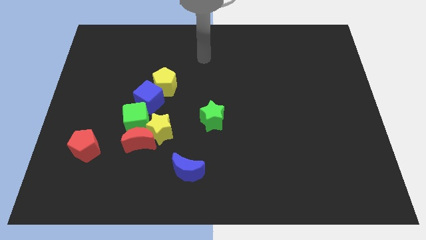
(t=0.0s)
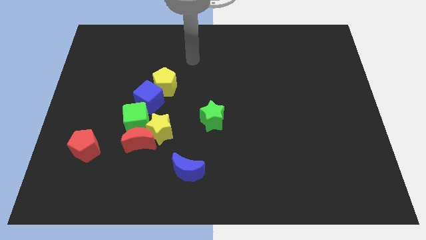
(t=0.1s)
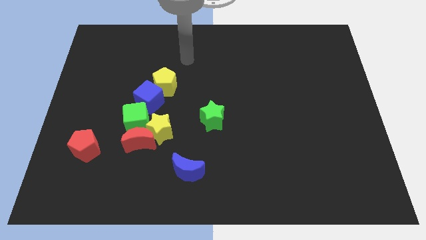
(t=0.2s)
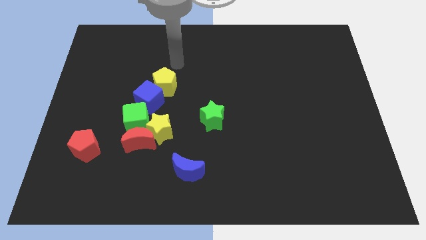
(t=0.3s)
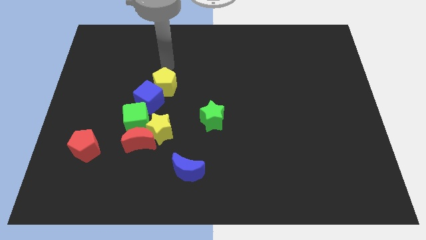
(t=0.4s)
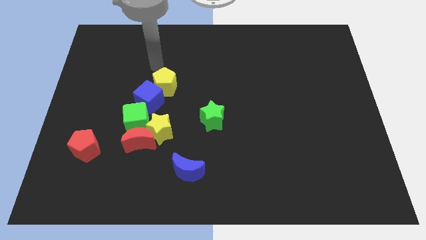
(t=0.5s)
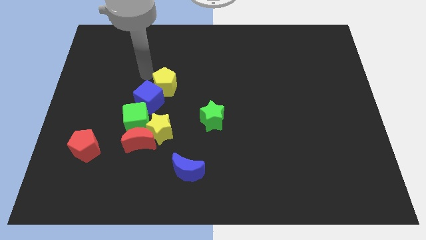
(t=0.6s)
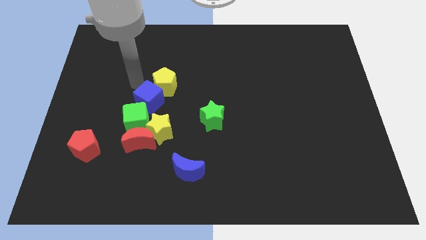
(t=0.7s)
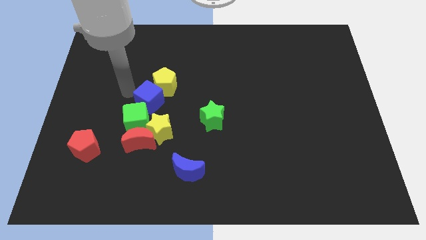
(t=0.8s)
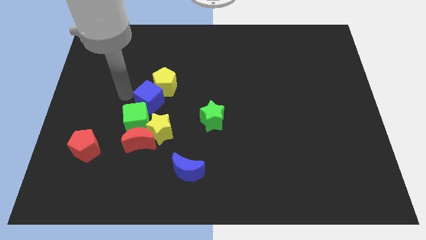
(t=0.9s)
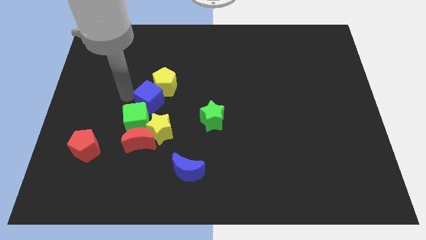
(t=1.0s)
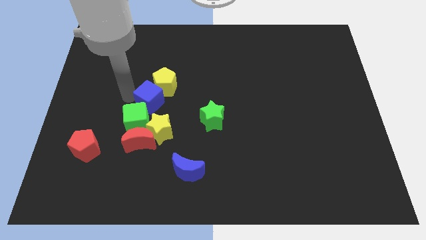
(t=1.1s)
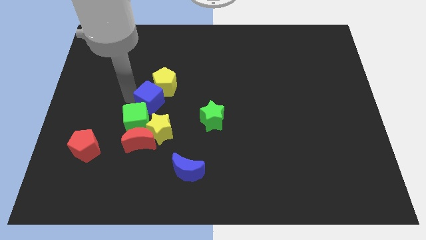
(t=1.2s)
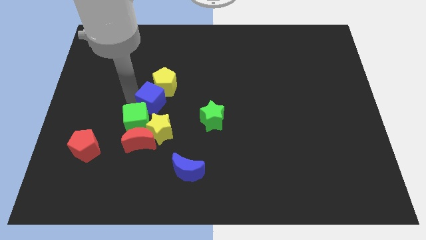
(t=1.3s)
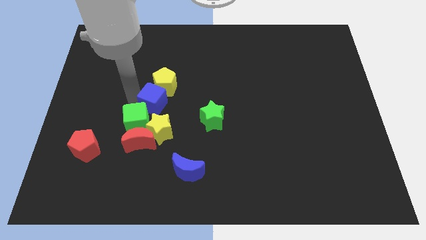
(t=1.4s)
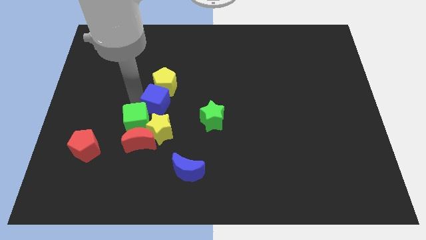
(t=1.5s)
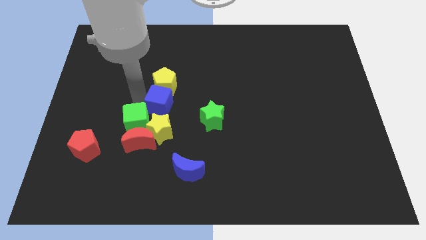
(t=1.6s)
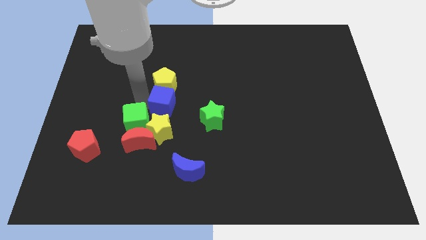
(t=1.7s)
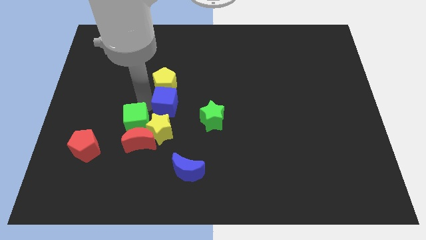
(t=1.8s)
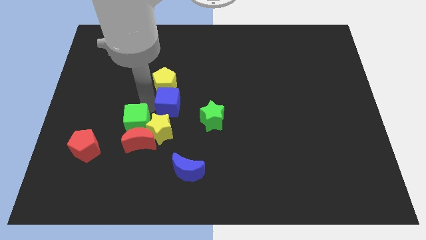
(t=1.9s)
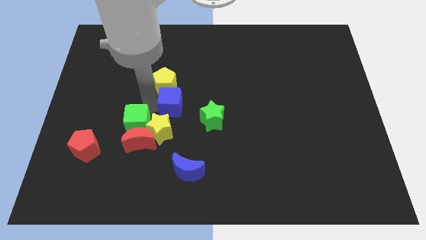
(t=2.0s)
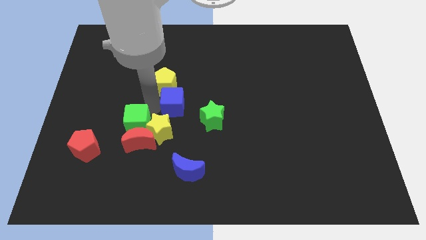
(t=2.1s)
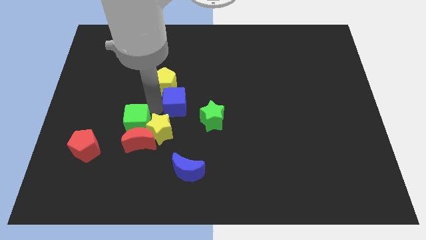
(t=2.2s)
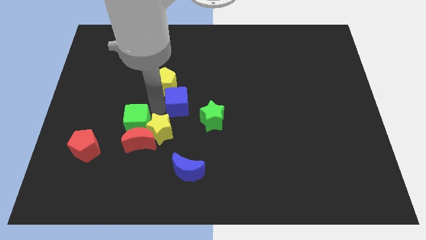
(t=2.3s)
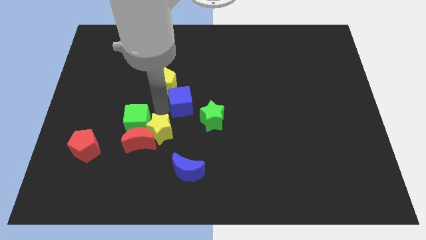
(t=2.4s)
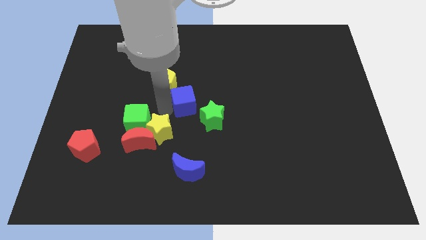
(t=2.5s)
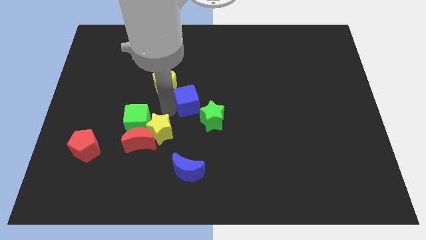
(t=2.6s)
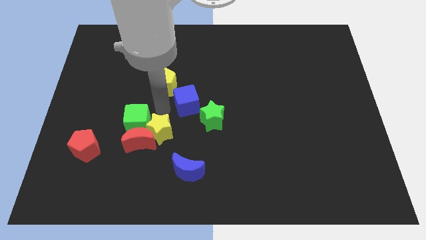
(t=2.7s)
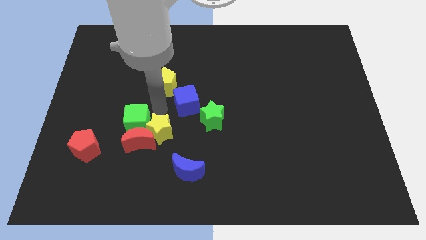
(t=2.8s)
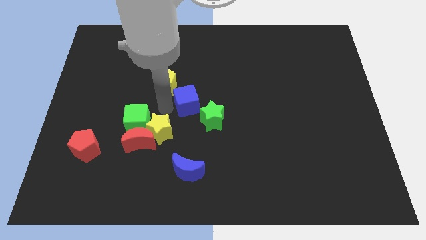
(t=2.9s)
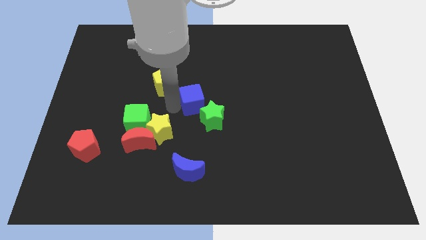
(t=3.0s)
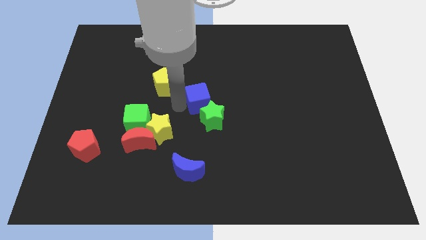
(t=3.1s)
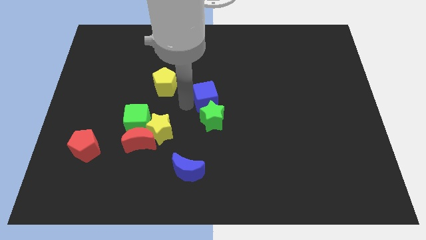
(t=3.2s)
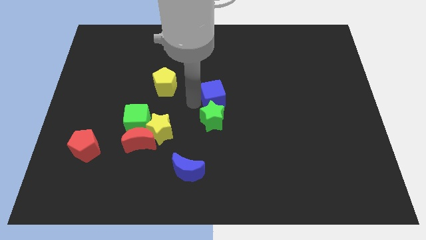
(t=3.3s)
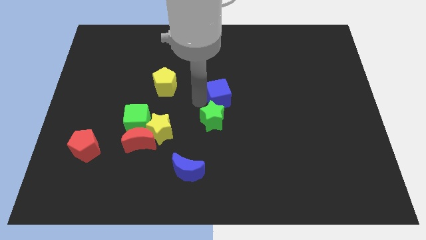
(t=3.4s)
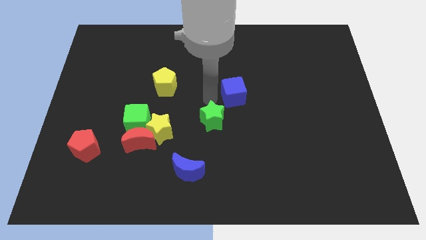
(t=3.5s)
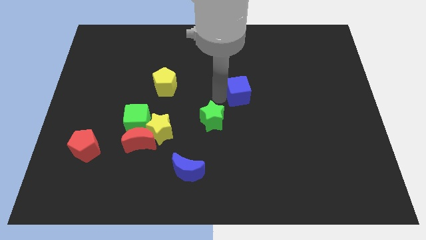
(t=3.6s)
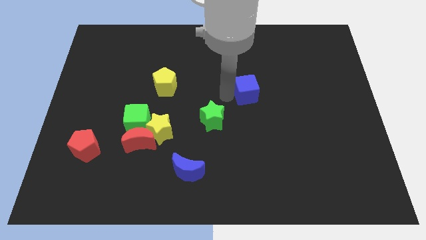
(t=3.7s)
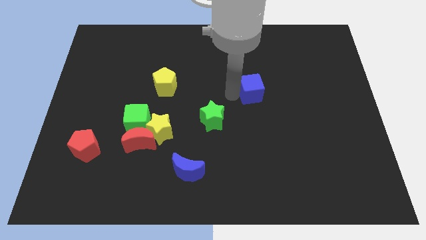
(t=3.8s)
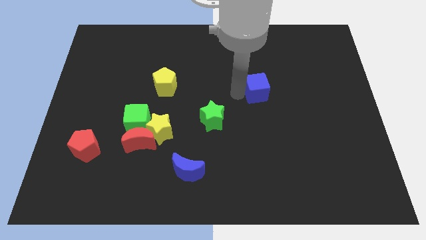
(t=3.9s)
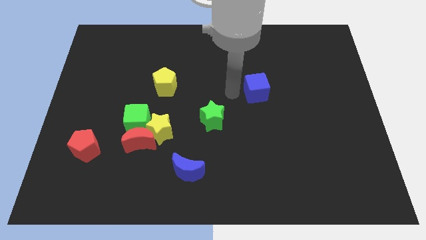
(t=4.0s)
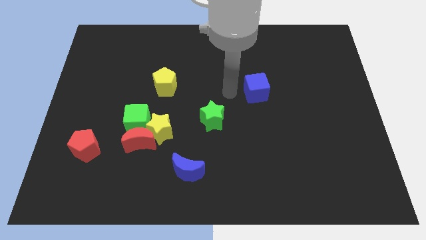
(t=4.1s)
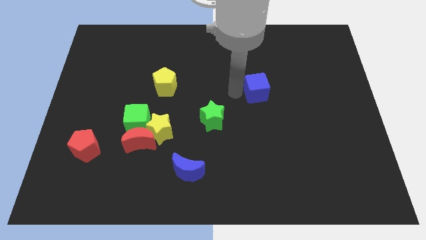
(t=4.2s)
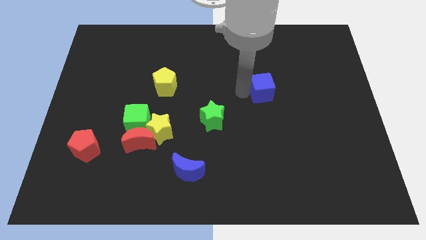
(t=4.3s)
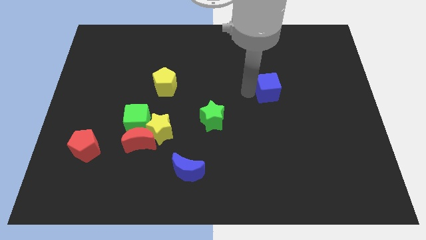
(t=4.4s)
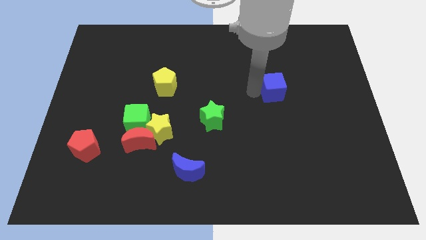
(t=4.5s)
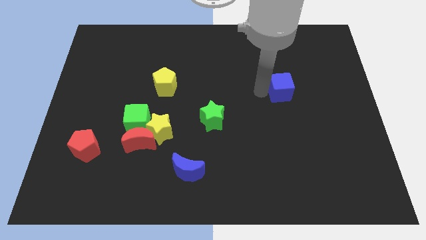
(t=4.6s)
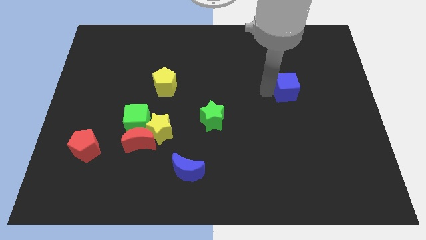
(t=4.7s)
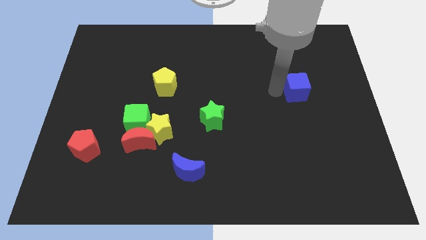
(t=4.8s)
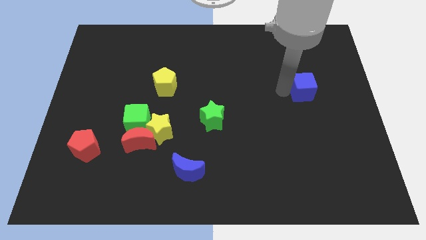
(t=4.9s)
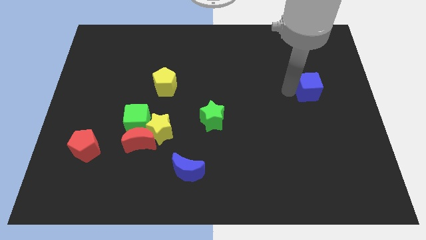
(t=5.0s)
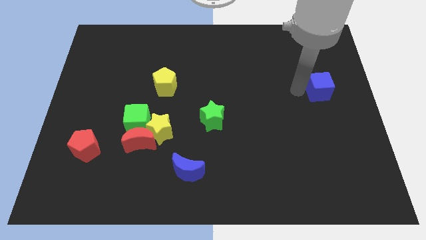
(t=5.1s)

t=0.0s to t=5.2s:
slide the blue cube to the right side

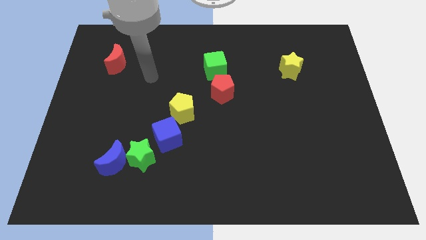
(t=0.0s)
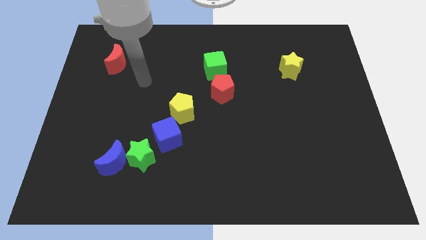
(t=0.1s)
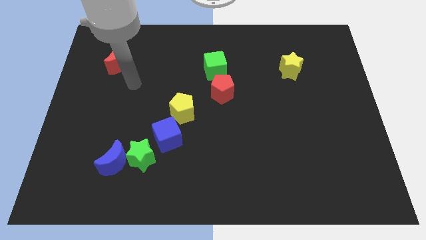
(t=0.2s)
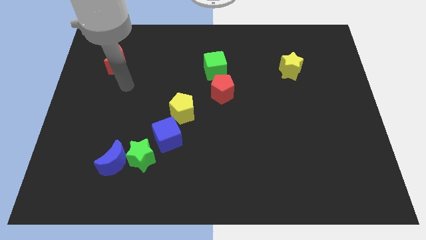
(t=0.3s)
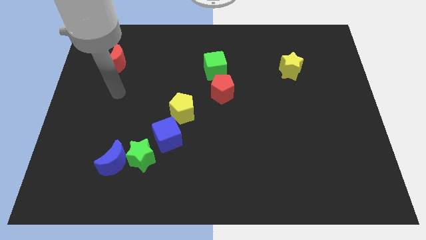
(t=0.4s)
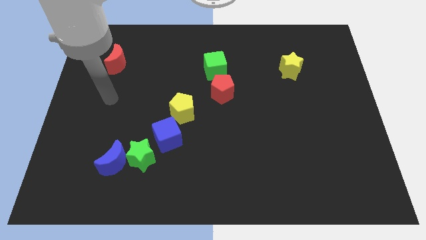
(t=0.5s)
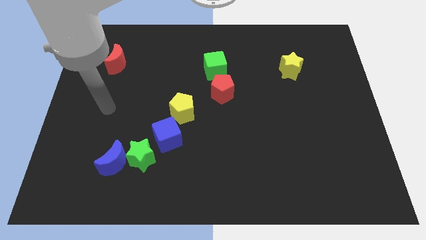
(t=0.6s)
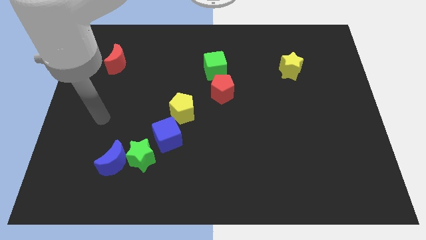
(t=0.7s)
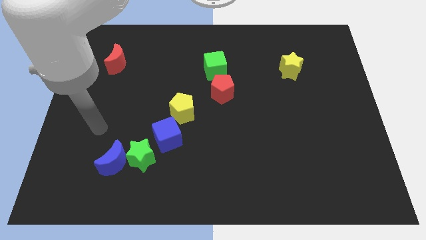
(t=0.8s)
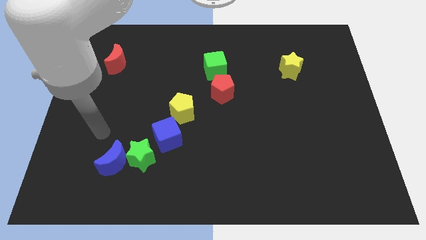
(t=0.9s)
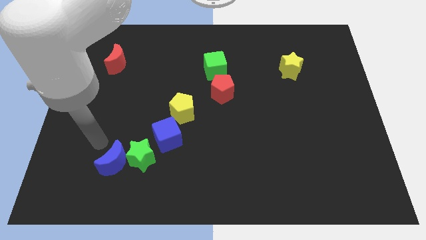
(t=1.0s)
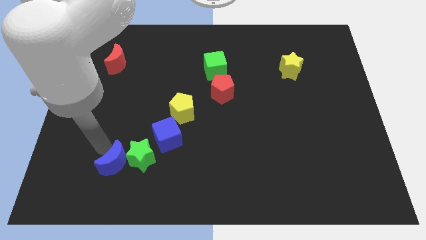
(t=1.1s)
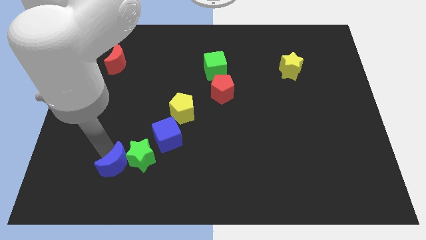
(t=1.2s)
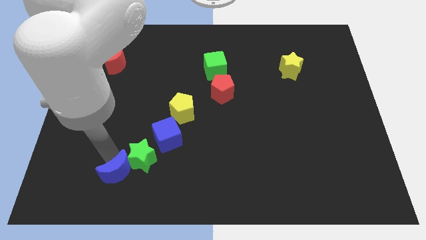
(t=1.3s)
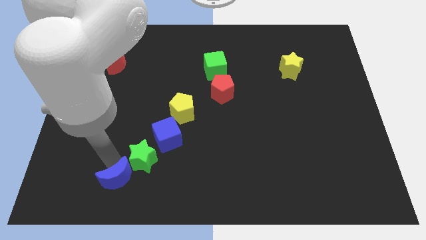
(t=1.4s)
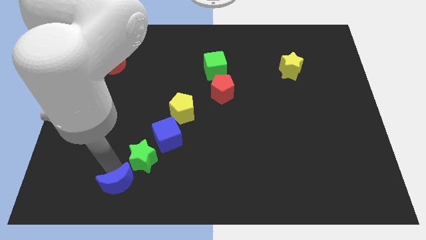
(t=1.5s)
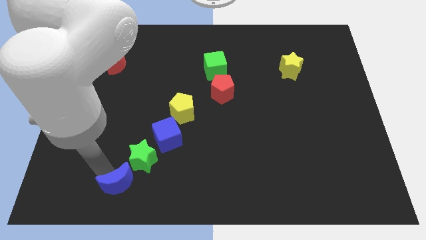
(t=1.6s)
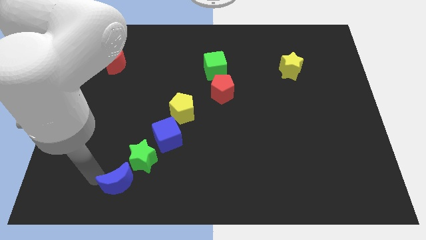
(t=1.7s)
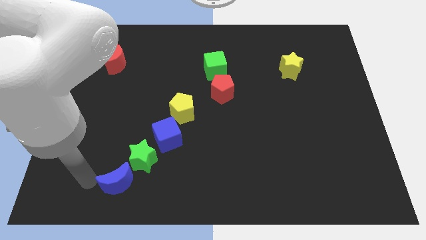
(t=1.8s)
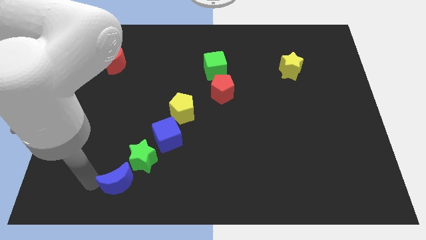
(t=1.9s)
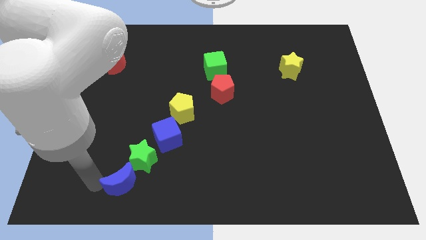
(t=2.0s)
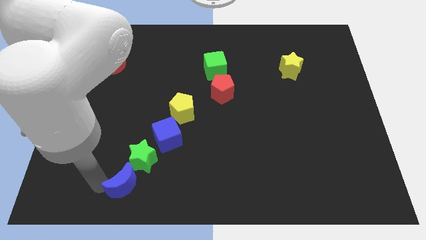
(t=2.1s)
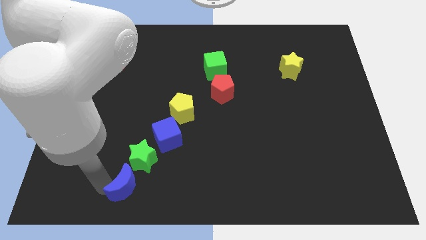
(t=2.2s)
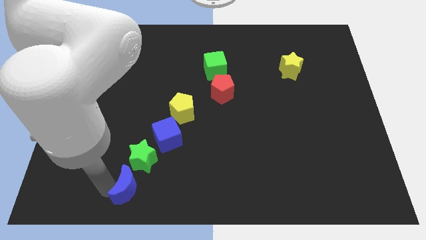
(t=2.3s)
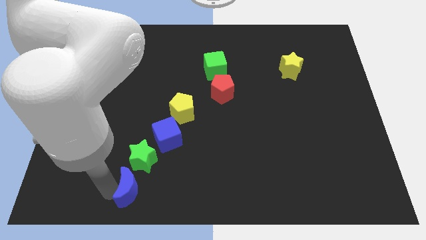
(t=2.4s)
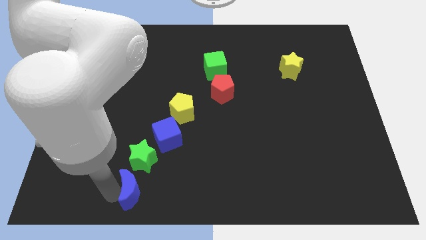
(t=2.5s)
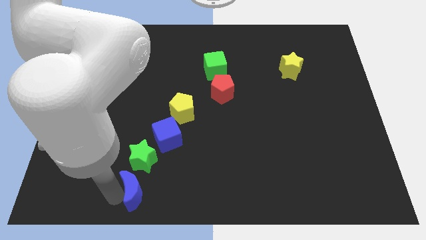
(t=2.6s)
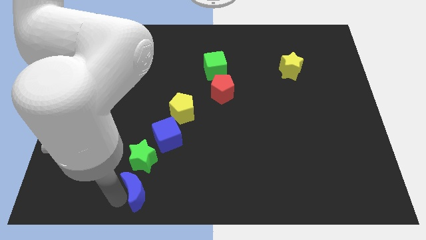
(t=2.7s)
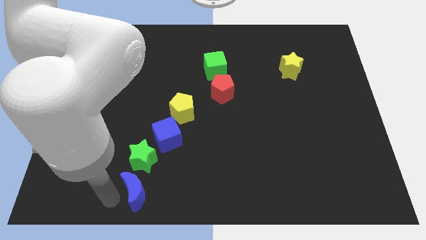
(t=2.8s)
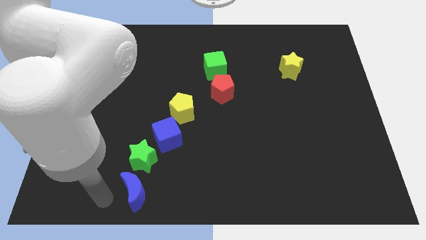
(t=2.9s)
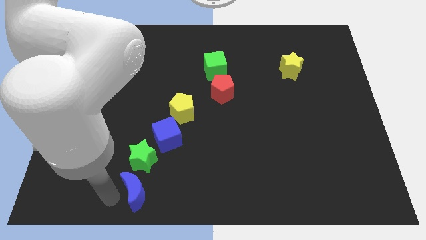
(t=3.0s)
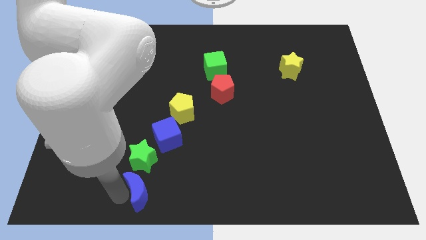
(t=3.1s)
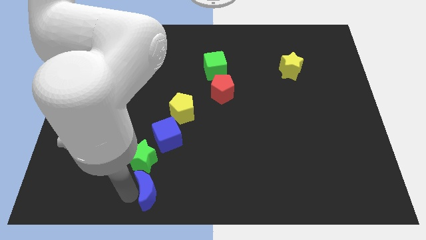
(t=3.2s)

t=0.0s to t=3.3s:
slide the blue moon to the bottom side
